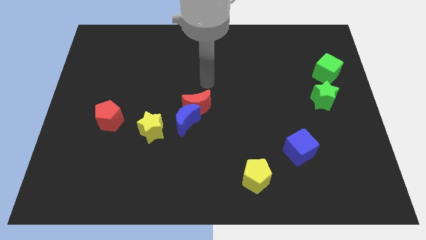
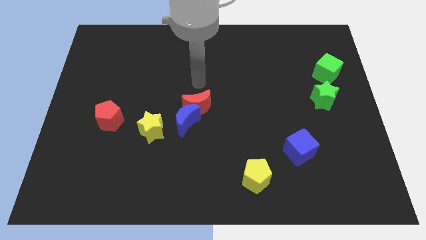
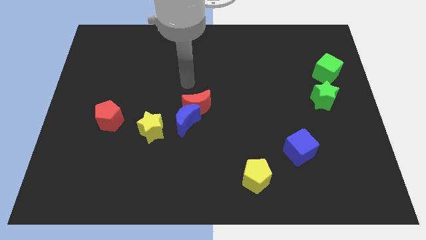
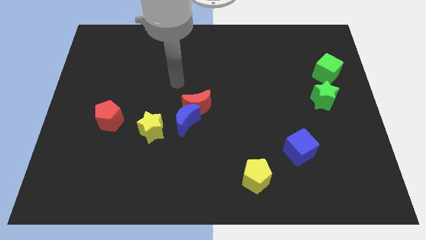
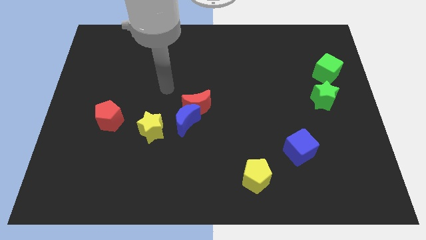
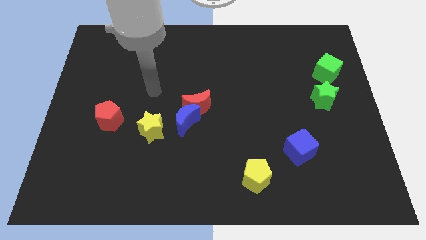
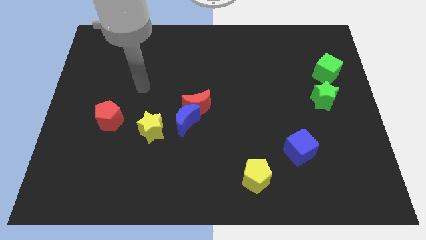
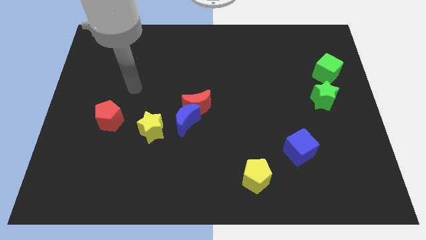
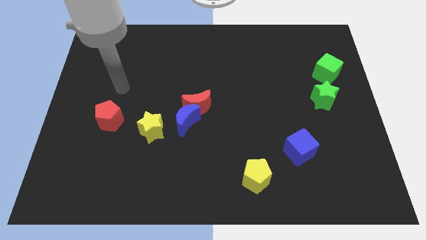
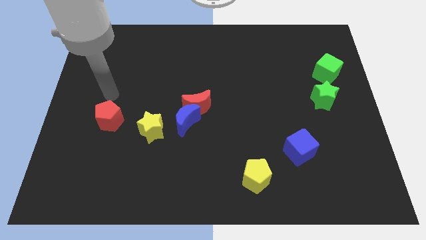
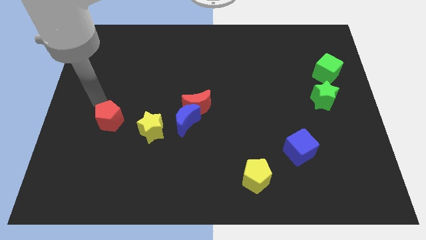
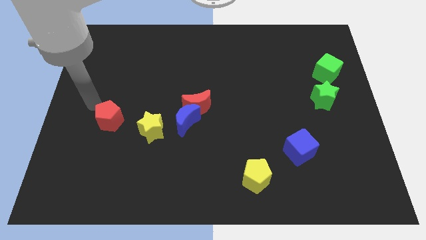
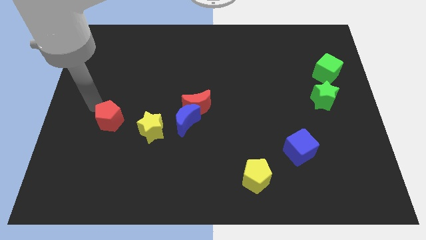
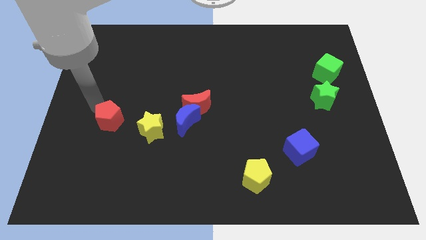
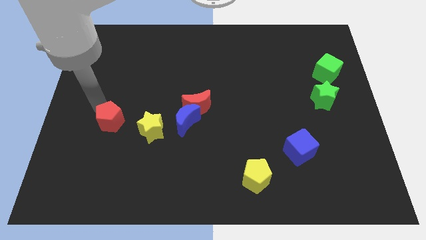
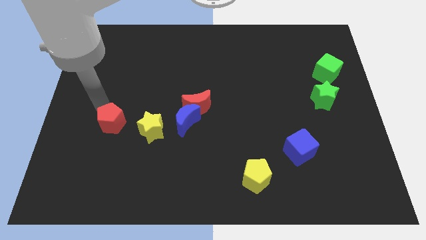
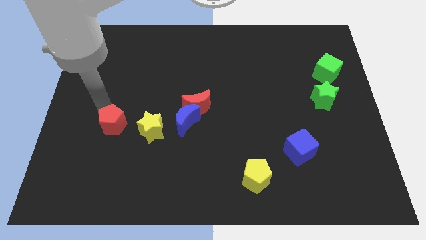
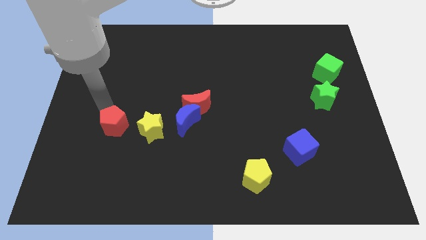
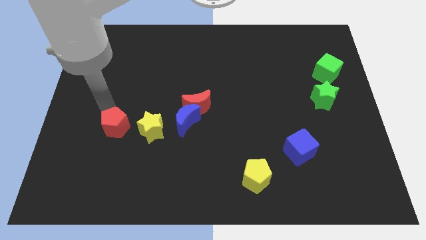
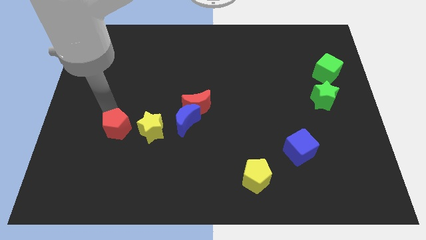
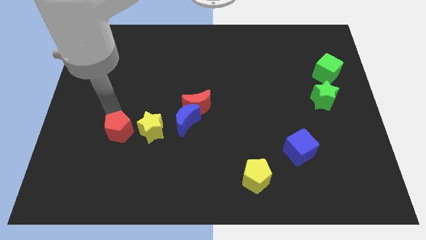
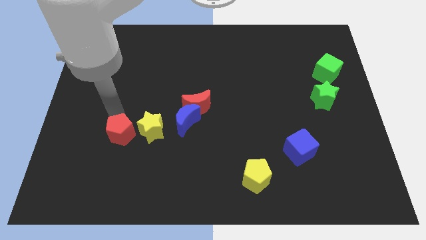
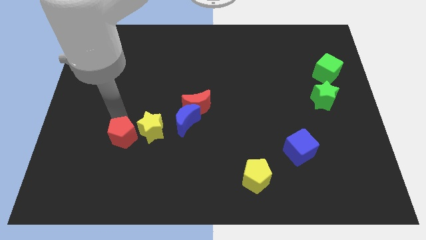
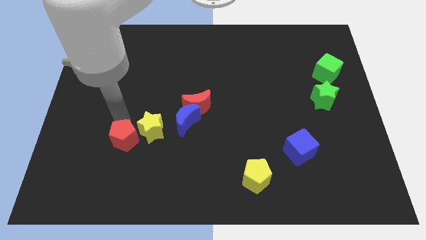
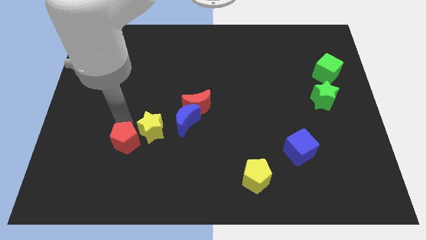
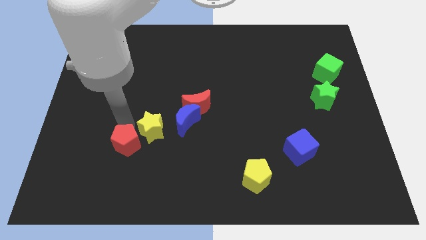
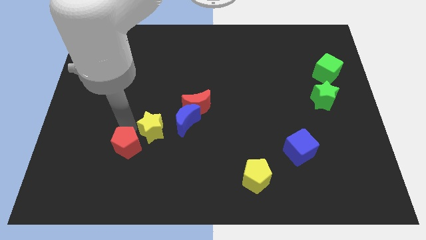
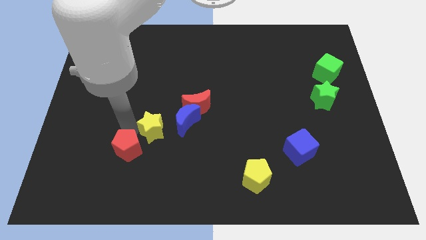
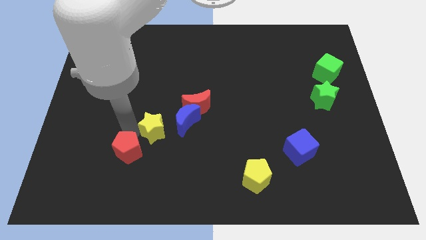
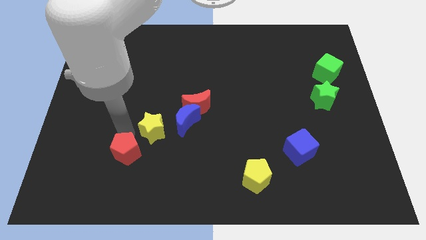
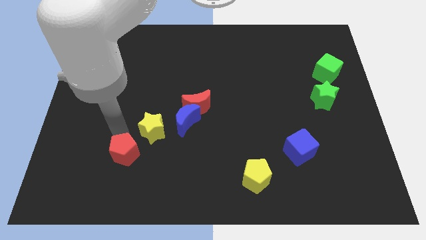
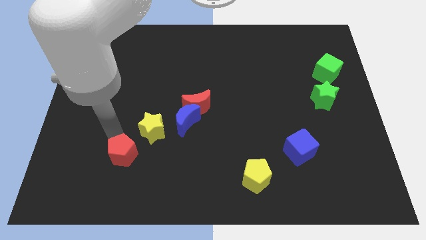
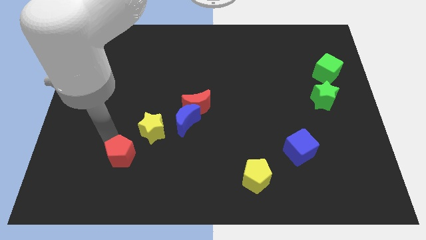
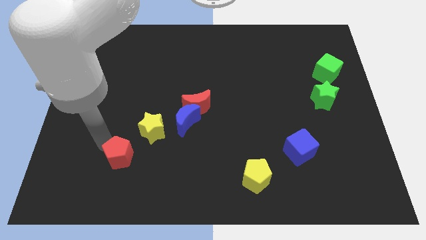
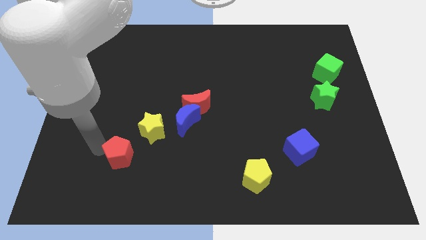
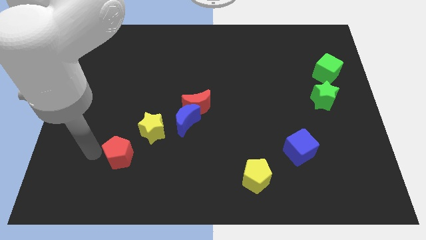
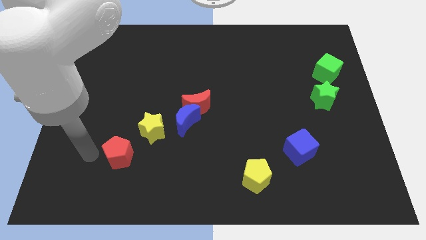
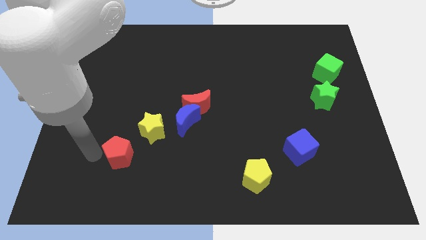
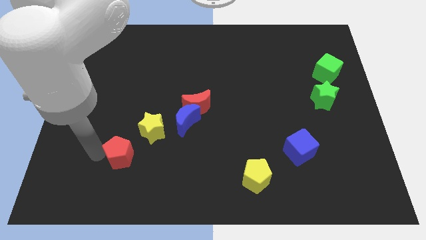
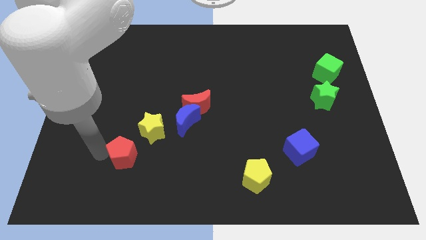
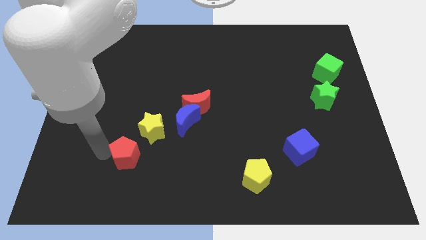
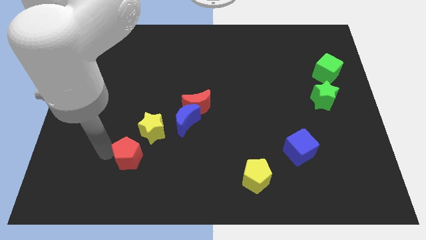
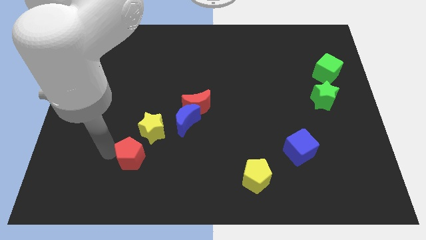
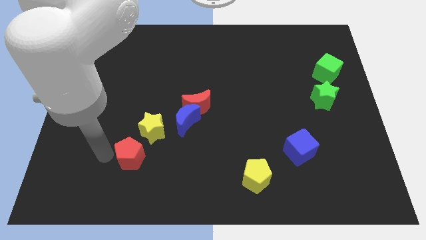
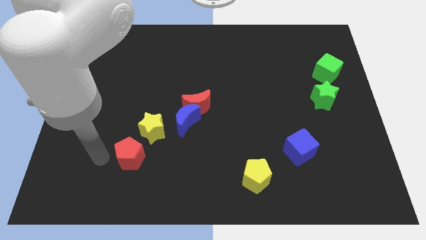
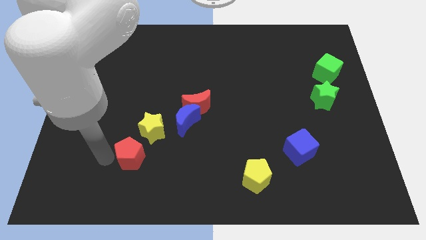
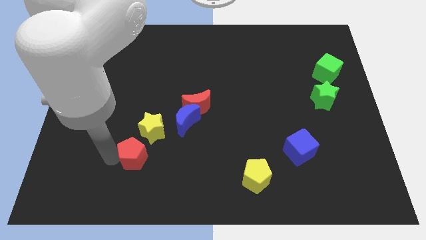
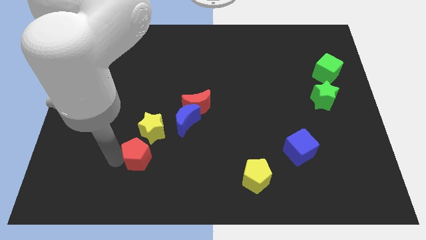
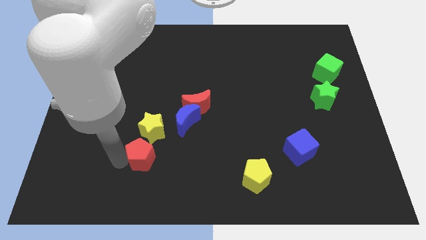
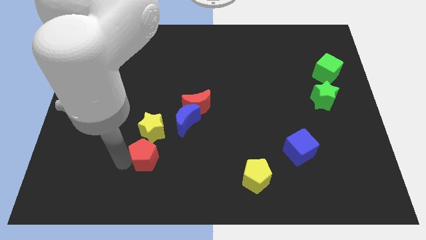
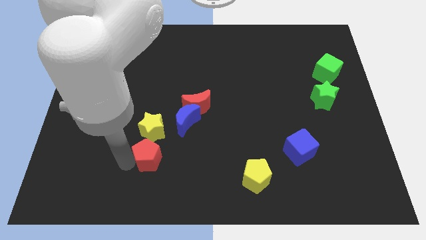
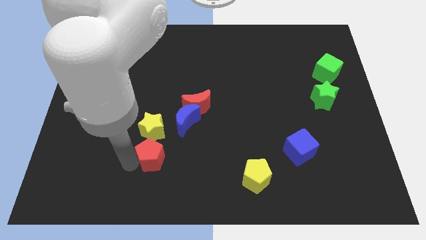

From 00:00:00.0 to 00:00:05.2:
push the red pentagon to the bottom right side of the yellow star

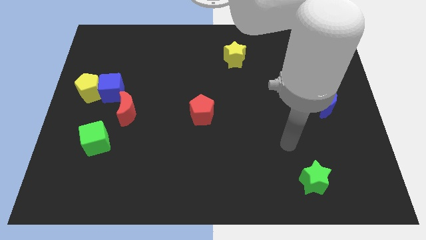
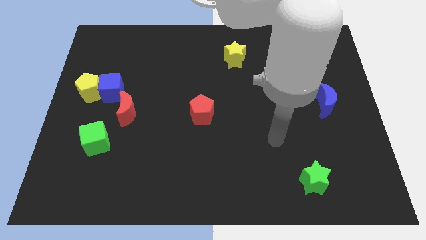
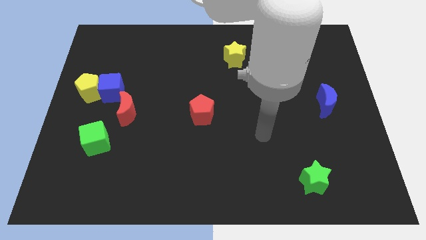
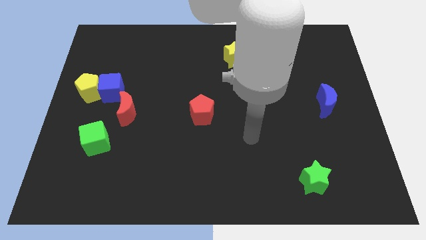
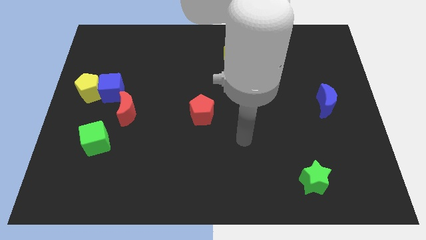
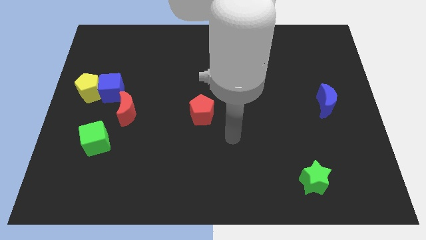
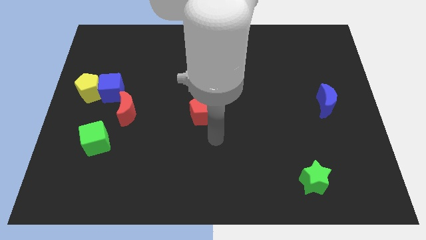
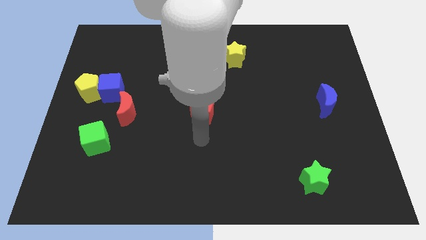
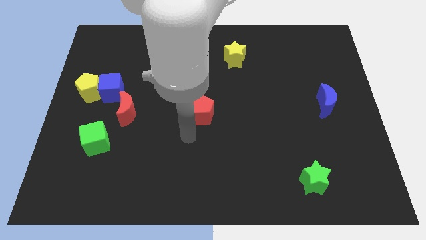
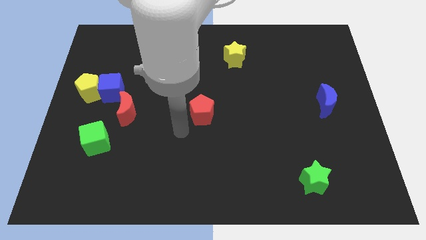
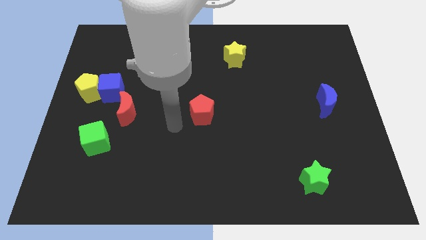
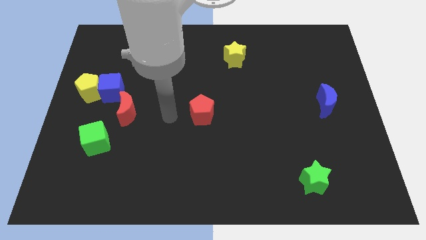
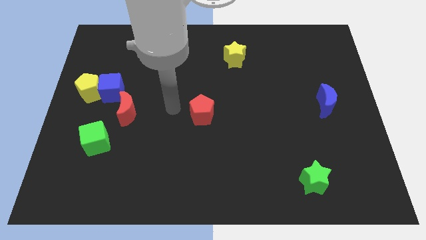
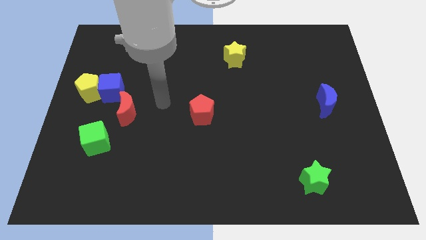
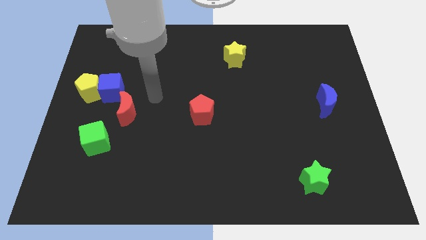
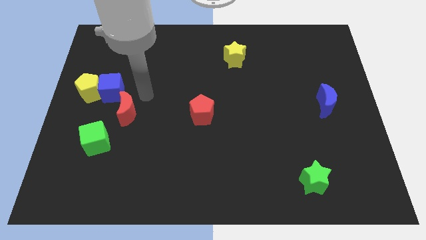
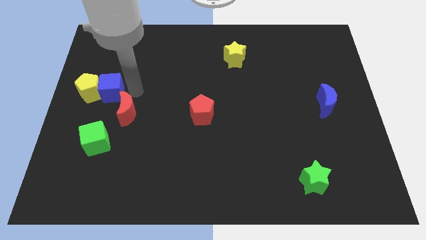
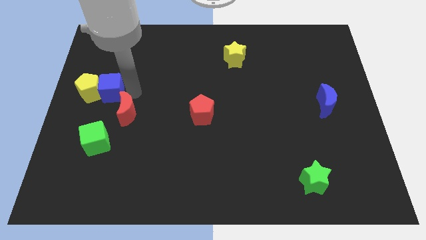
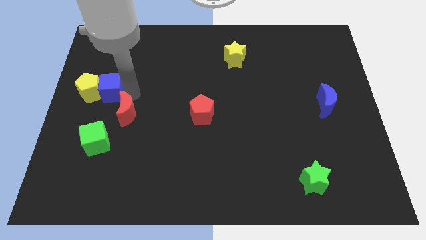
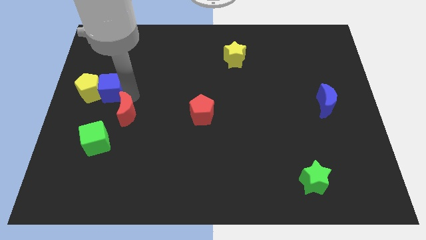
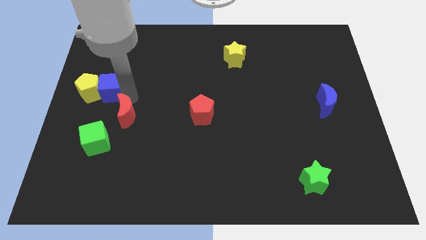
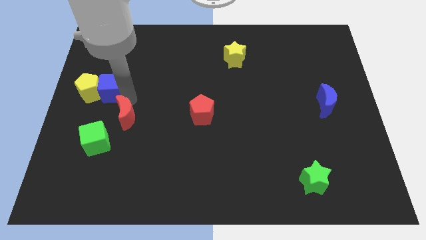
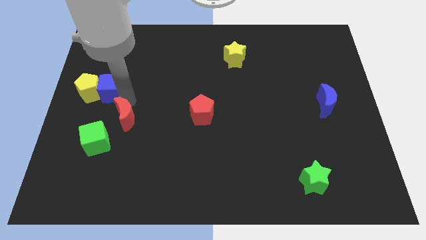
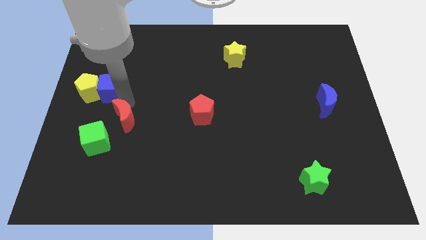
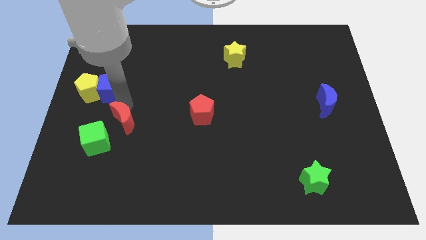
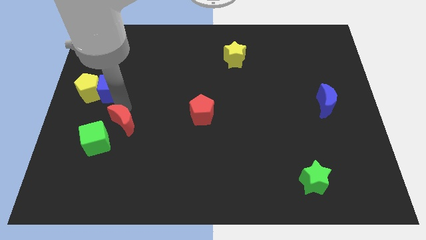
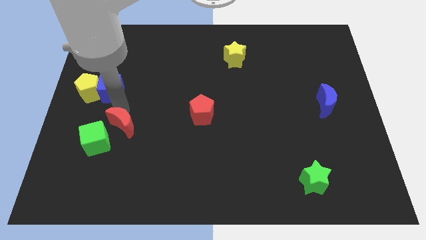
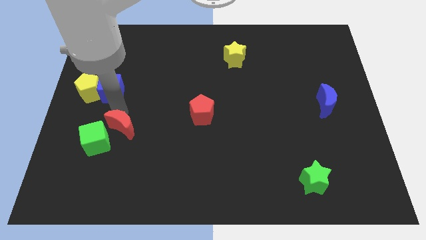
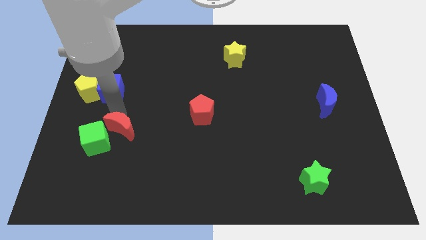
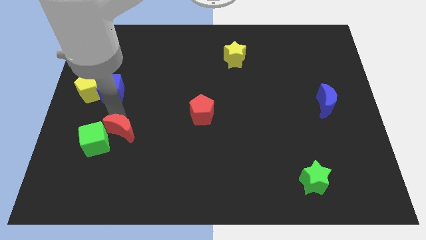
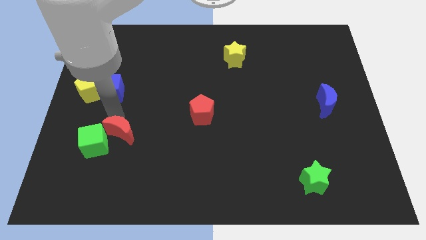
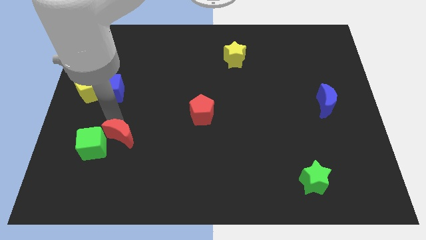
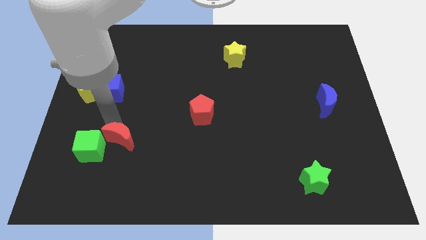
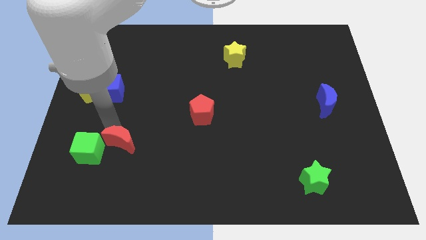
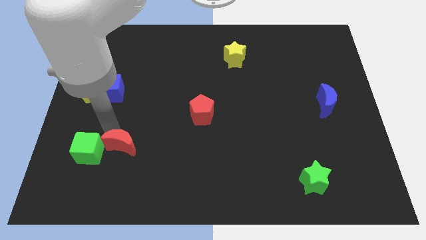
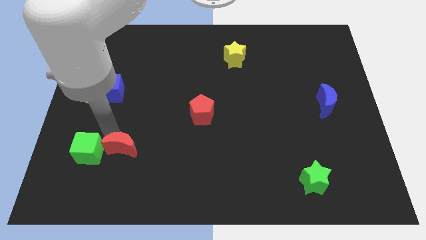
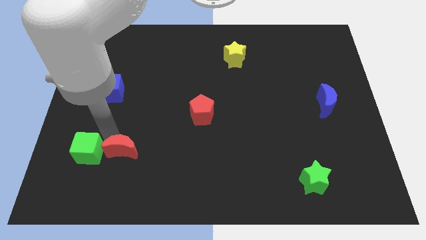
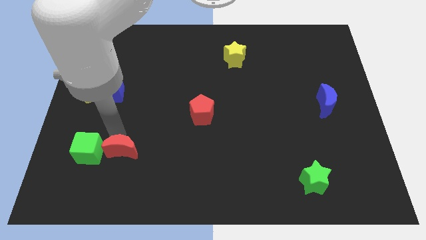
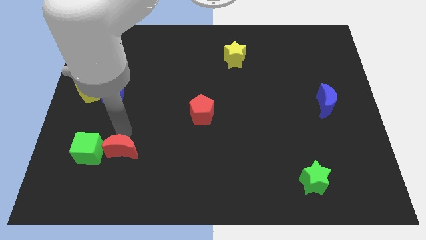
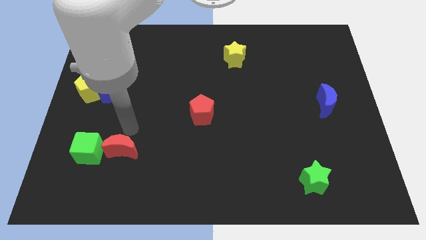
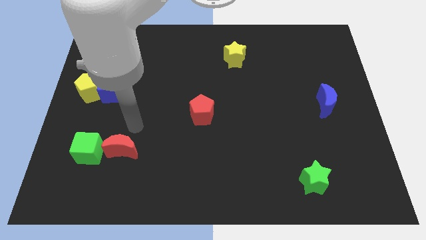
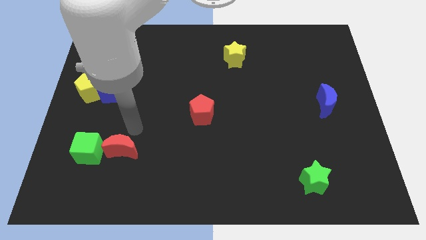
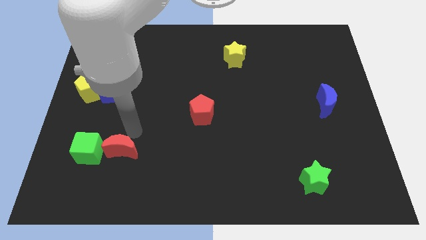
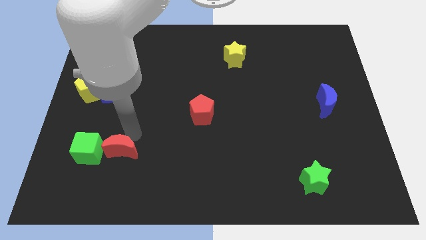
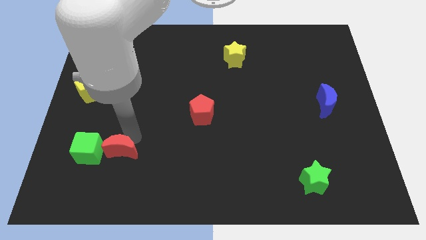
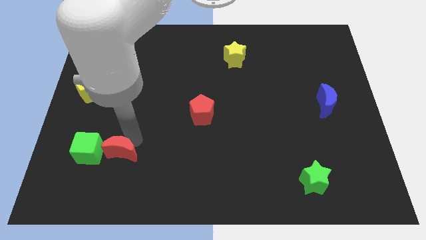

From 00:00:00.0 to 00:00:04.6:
push the red moon to the bottom right side of the green cube
